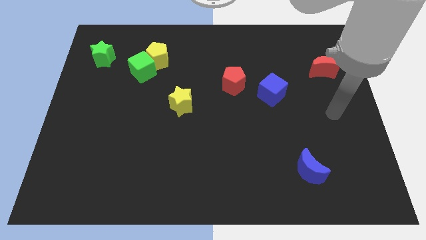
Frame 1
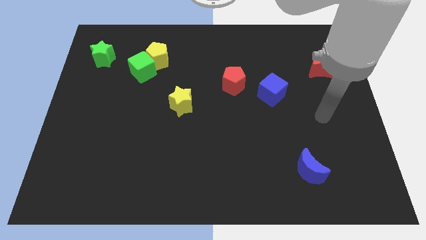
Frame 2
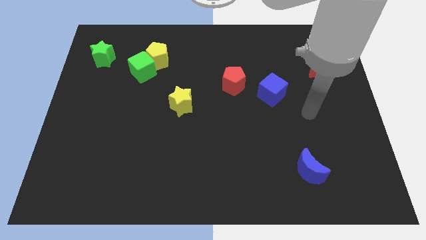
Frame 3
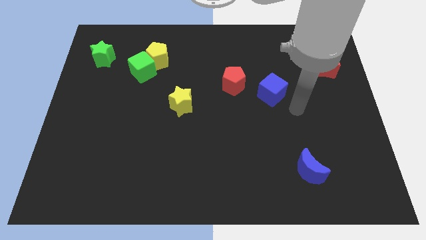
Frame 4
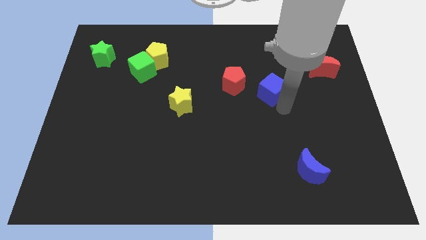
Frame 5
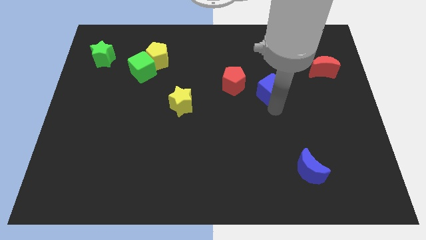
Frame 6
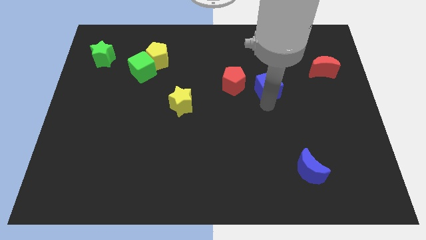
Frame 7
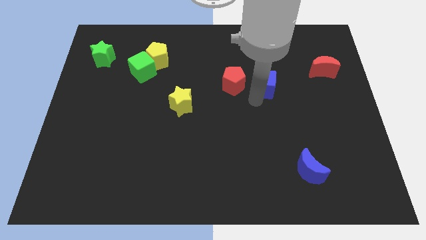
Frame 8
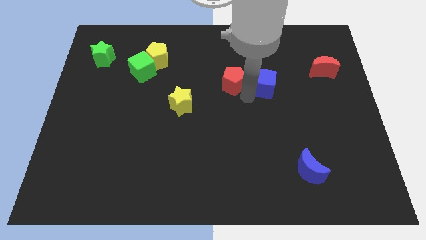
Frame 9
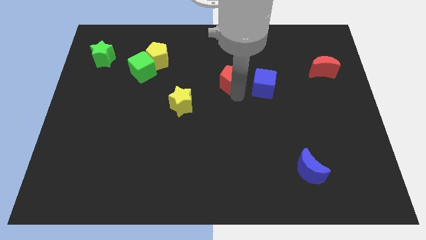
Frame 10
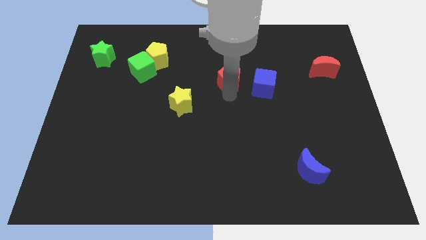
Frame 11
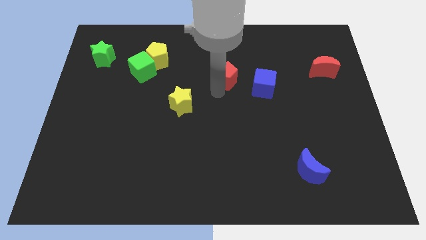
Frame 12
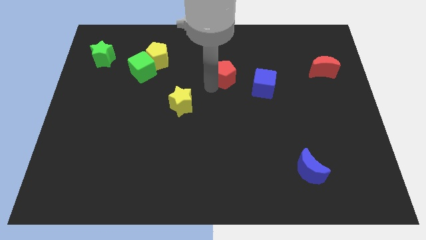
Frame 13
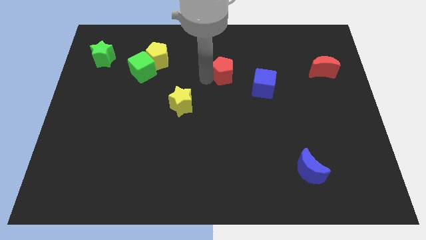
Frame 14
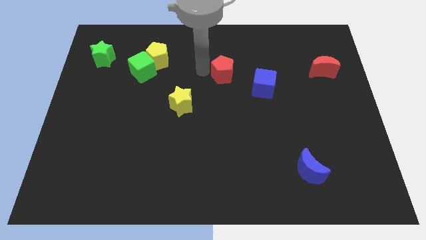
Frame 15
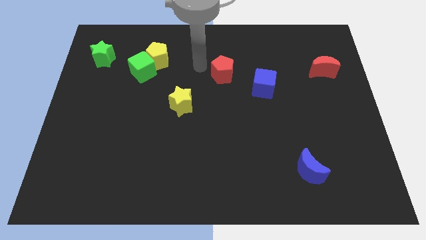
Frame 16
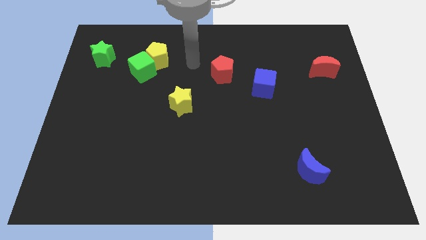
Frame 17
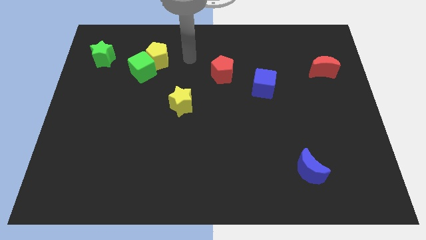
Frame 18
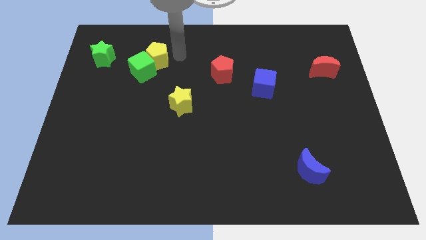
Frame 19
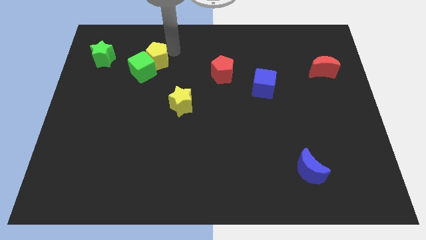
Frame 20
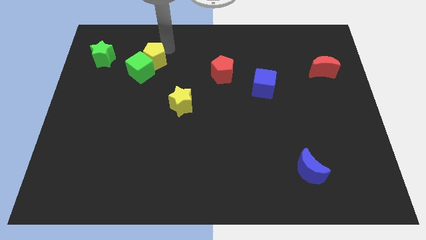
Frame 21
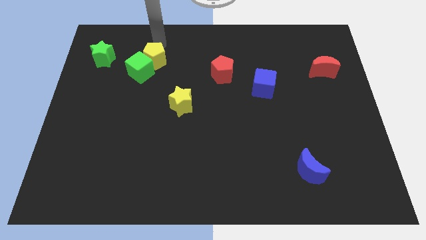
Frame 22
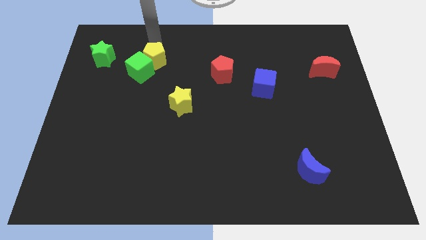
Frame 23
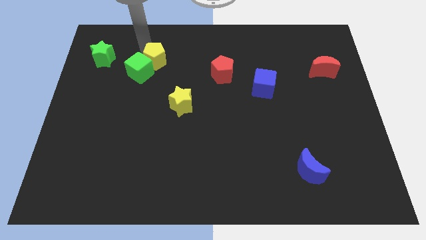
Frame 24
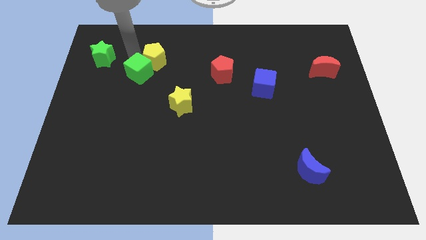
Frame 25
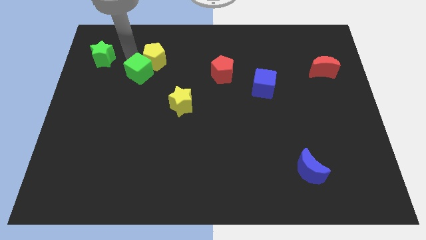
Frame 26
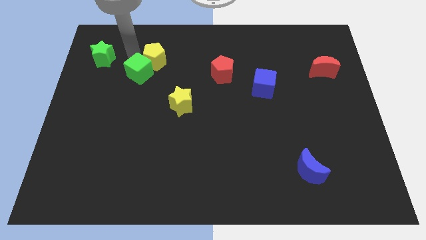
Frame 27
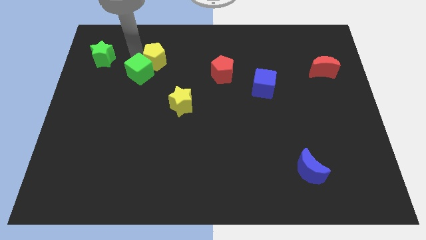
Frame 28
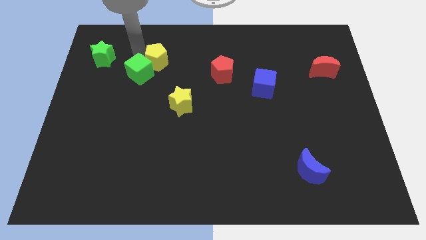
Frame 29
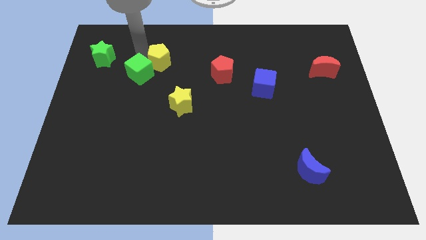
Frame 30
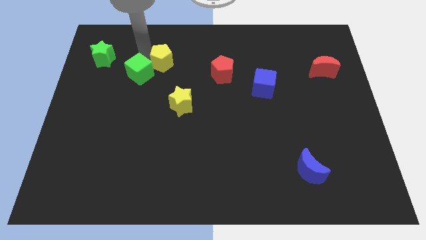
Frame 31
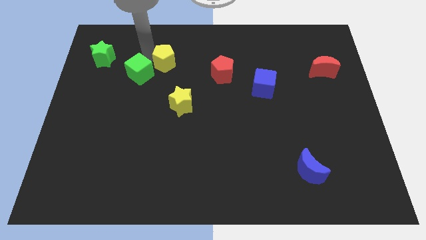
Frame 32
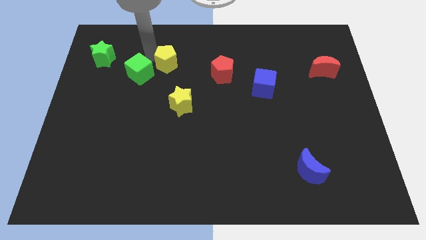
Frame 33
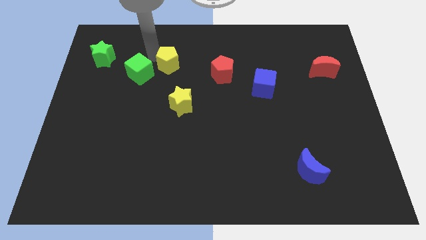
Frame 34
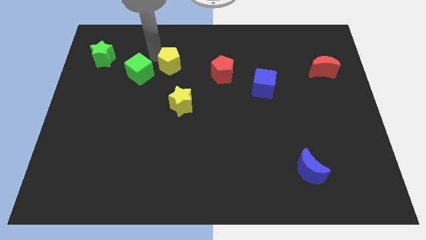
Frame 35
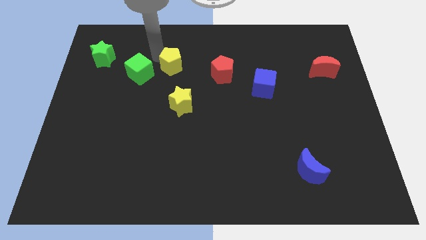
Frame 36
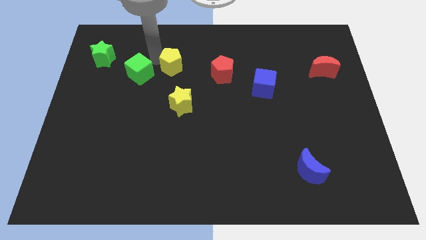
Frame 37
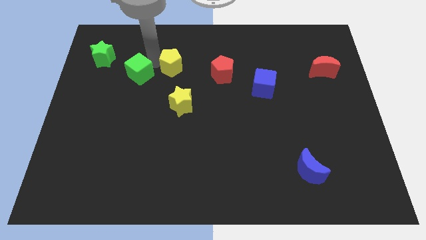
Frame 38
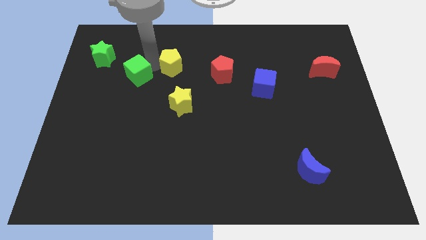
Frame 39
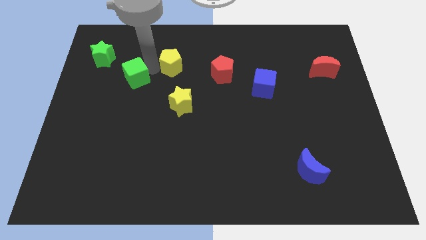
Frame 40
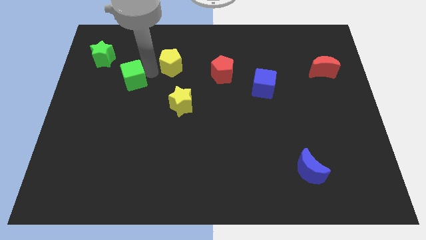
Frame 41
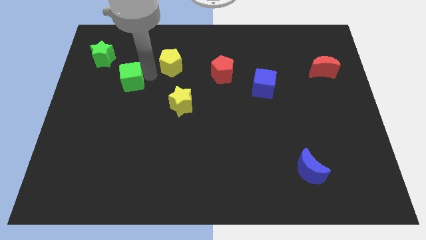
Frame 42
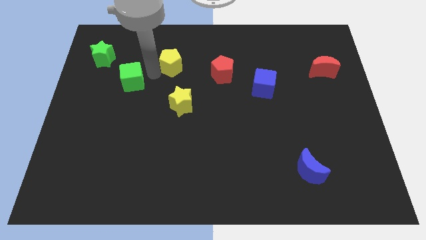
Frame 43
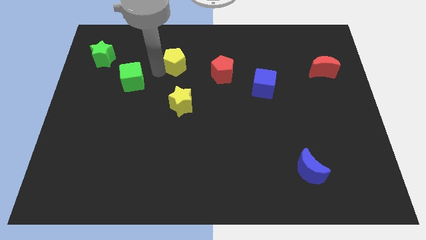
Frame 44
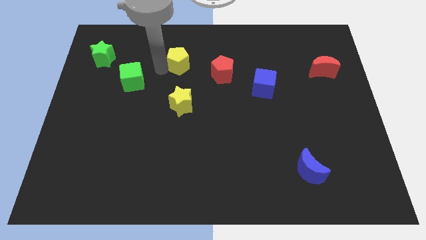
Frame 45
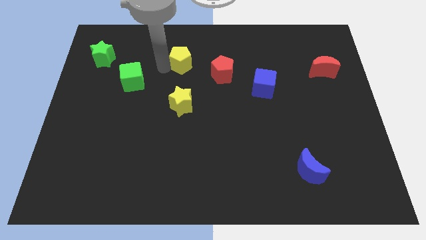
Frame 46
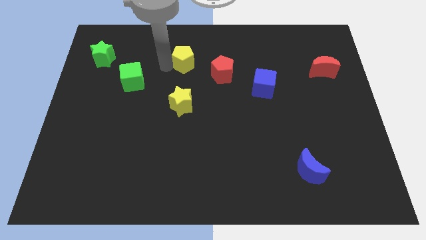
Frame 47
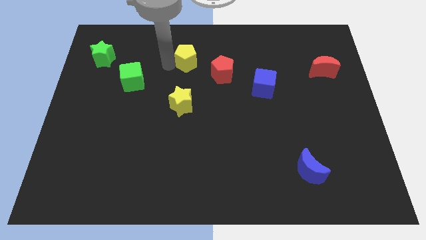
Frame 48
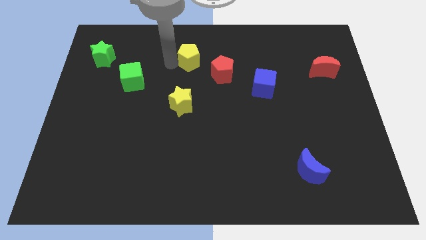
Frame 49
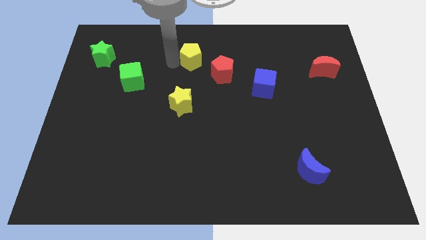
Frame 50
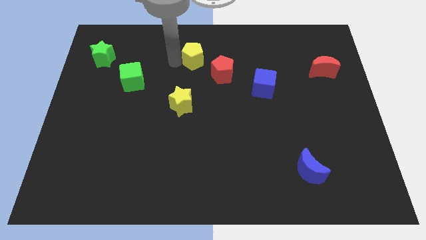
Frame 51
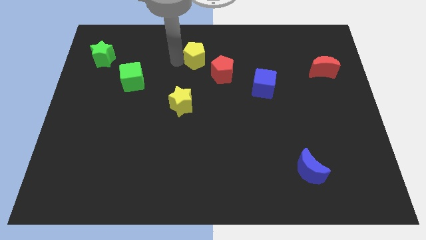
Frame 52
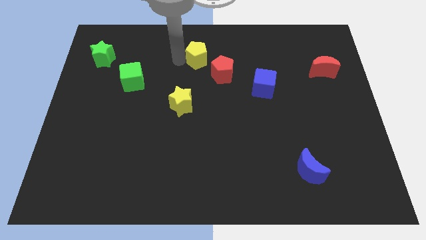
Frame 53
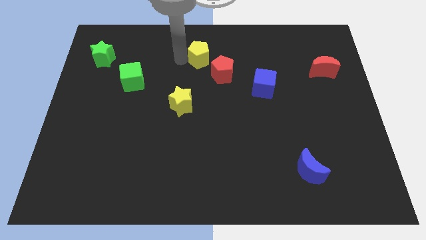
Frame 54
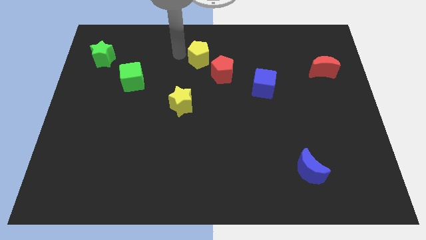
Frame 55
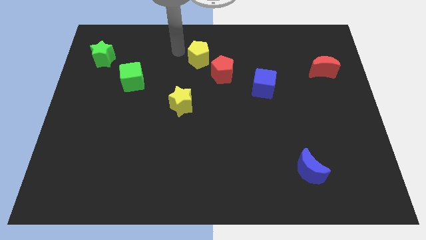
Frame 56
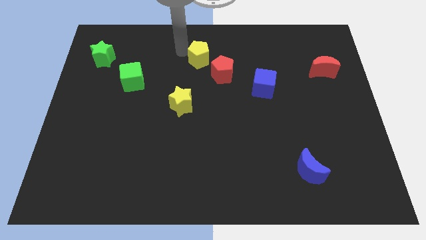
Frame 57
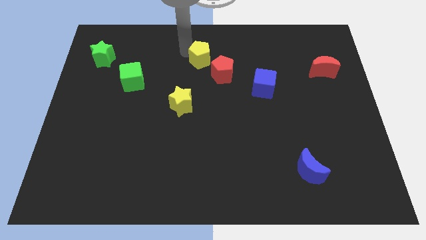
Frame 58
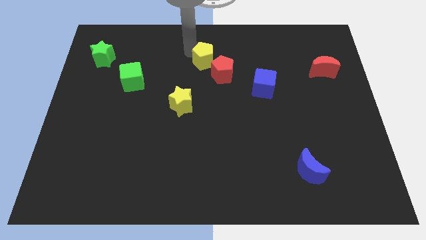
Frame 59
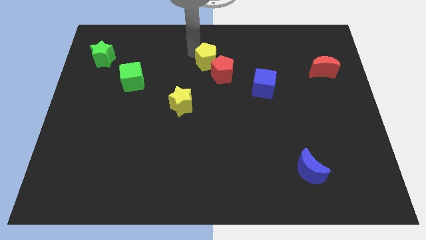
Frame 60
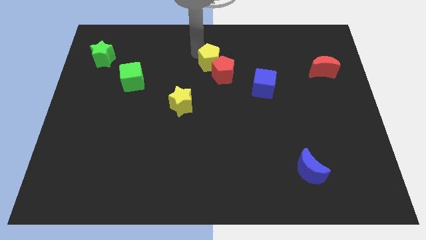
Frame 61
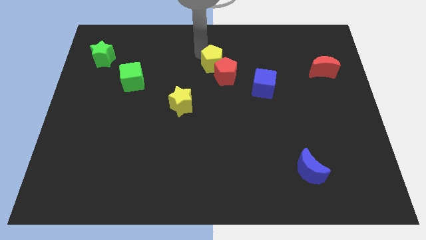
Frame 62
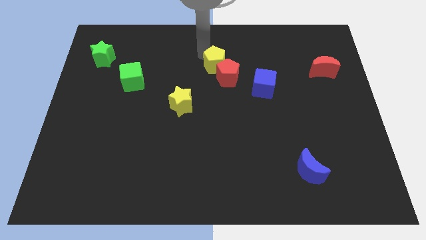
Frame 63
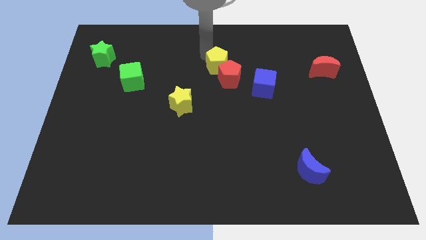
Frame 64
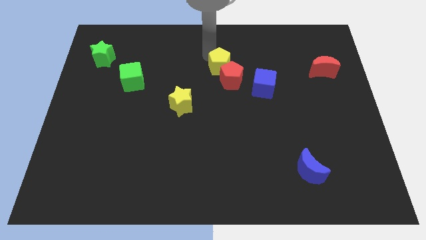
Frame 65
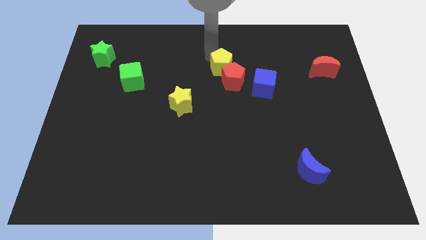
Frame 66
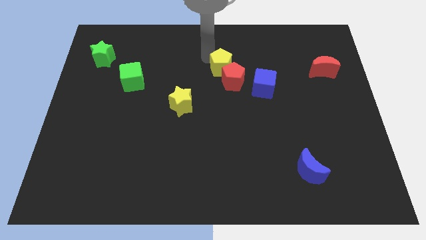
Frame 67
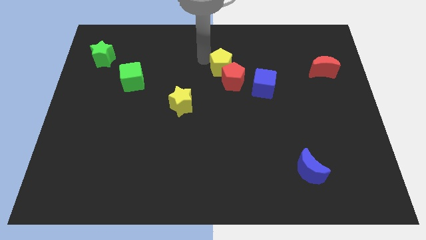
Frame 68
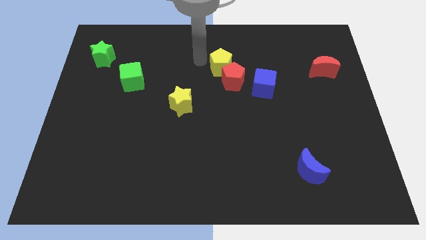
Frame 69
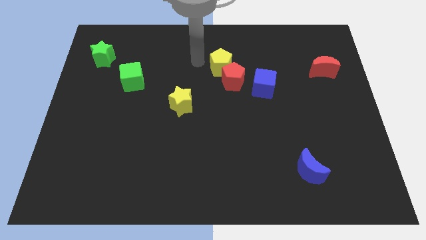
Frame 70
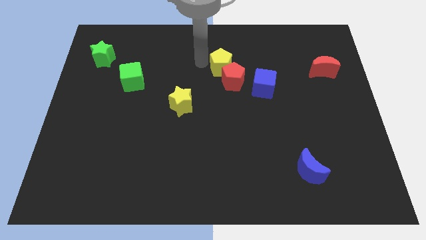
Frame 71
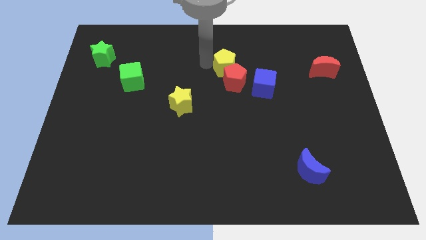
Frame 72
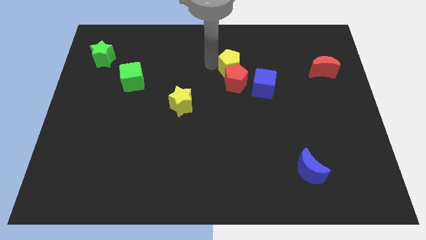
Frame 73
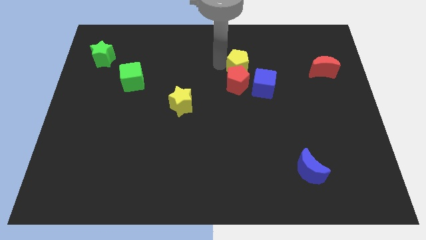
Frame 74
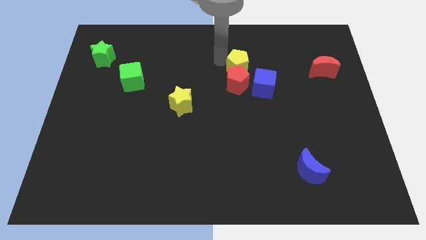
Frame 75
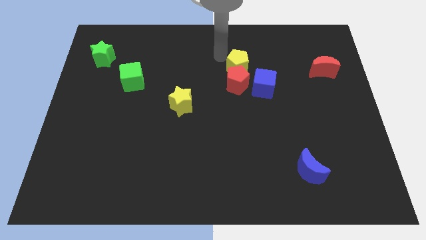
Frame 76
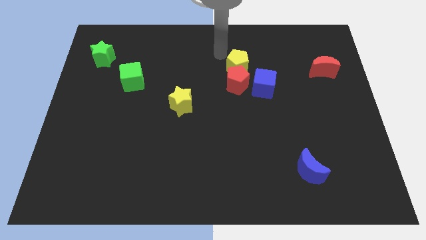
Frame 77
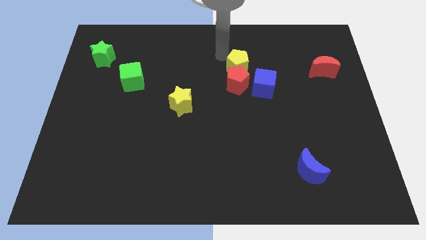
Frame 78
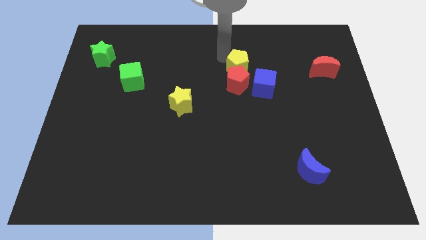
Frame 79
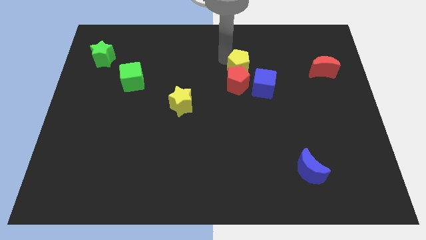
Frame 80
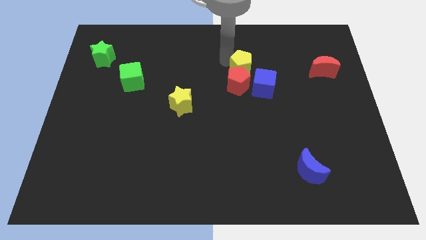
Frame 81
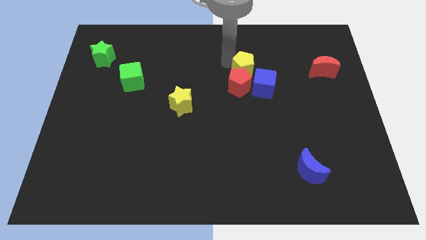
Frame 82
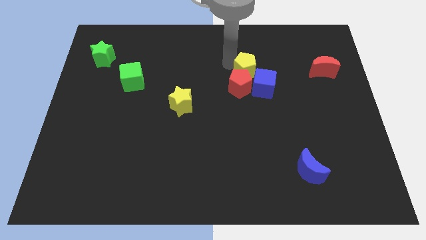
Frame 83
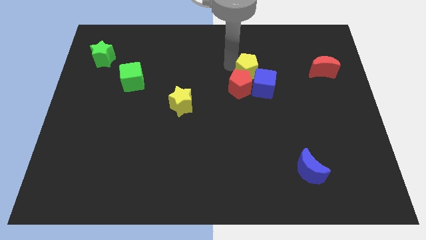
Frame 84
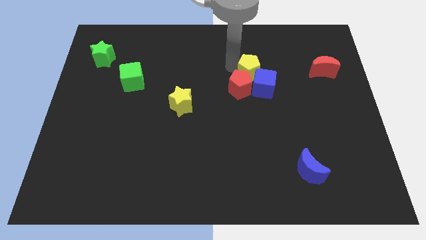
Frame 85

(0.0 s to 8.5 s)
move the yellow pentagon close to the blue cube
